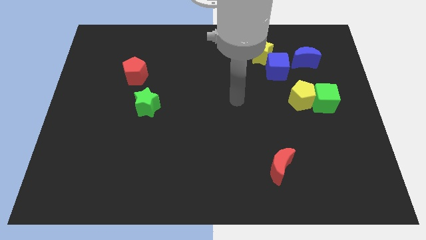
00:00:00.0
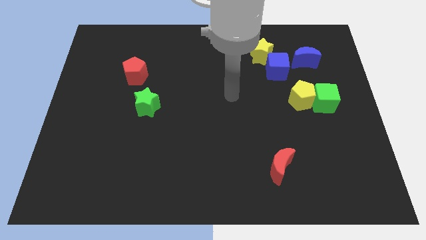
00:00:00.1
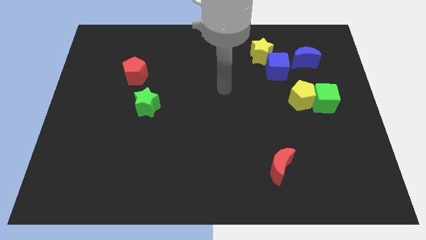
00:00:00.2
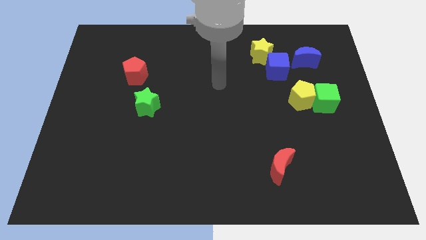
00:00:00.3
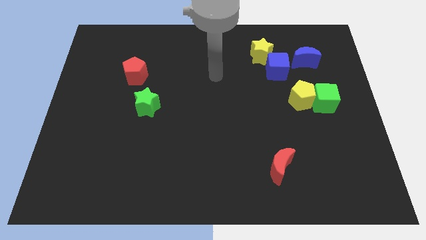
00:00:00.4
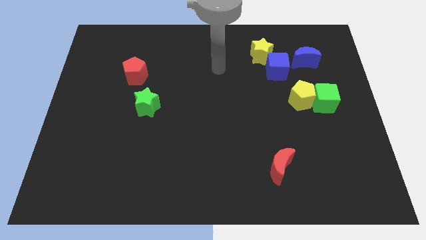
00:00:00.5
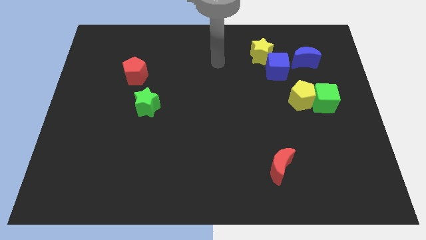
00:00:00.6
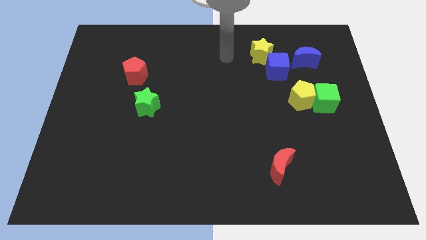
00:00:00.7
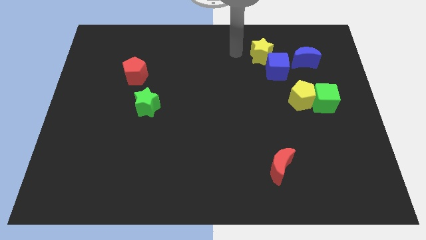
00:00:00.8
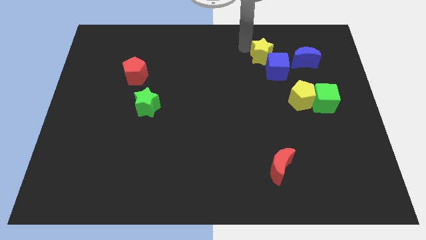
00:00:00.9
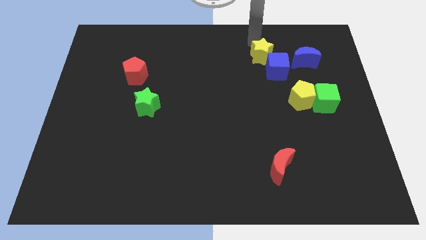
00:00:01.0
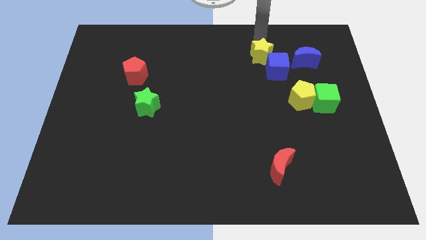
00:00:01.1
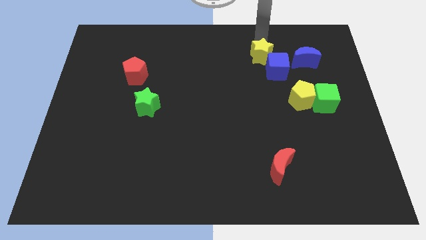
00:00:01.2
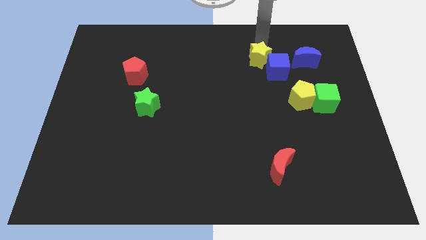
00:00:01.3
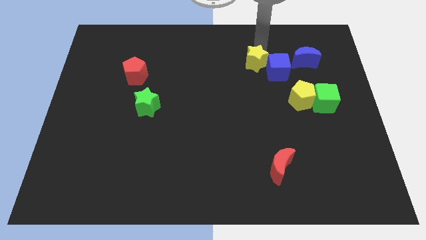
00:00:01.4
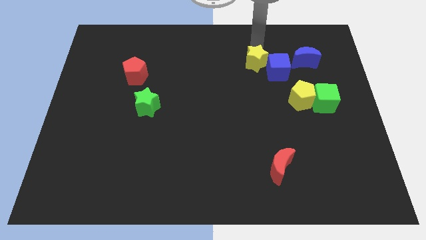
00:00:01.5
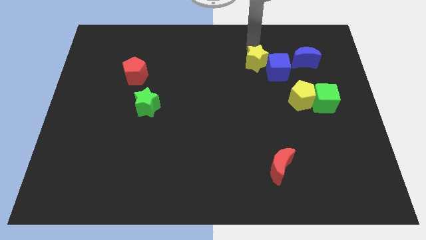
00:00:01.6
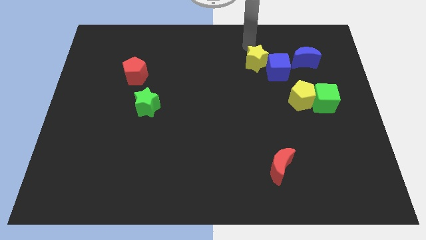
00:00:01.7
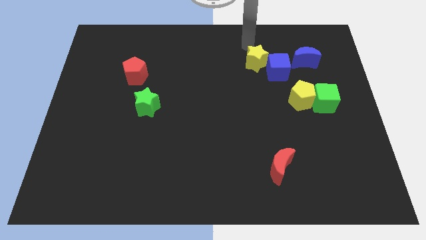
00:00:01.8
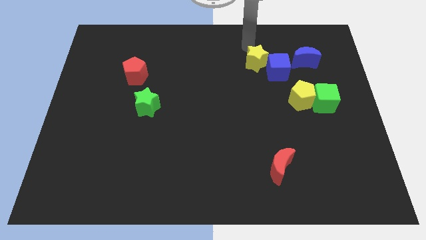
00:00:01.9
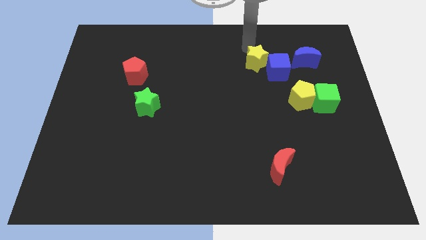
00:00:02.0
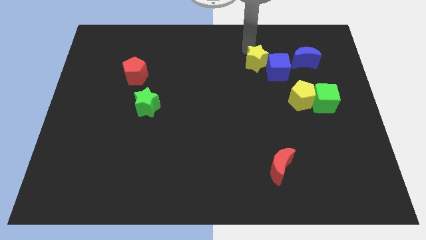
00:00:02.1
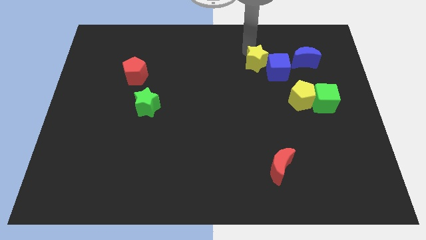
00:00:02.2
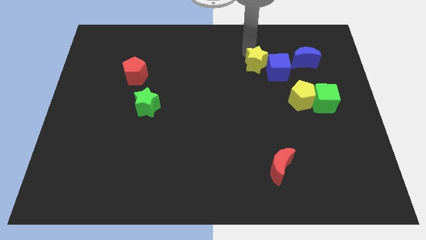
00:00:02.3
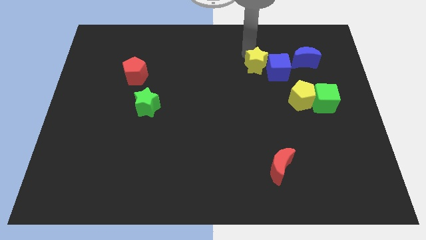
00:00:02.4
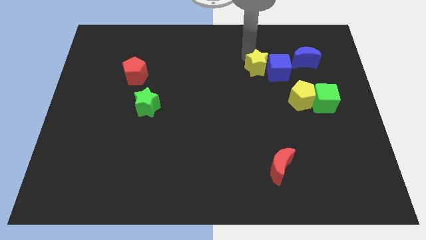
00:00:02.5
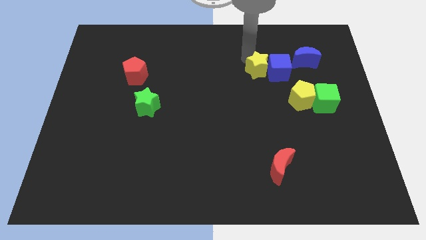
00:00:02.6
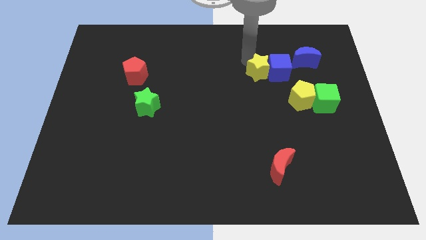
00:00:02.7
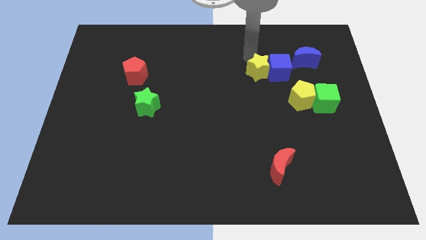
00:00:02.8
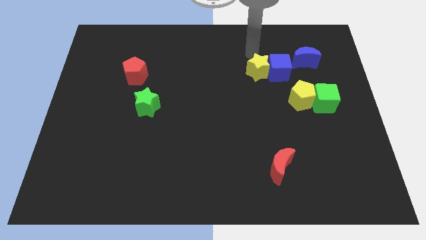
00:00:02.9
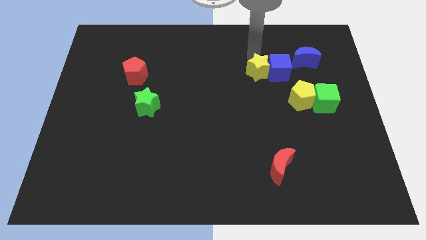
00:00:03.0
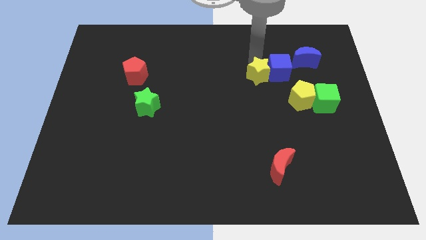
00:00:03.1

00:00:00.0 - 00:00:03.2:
move the yellow star somewhat down

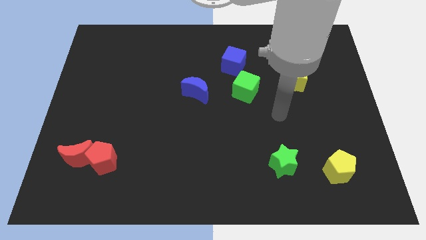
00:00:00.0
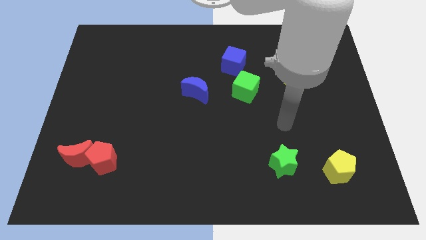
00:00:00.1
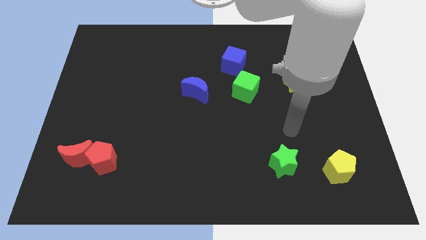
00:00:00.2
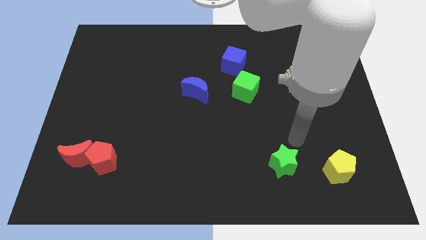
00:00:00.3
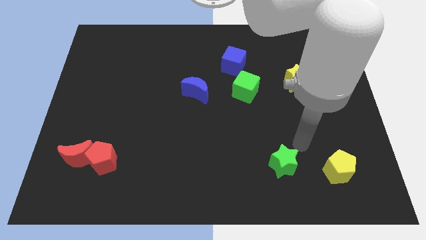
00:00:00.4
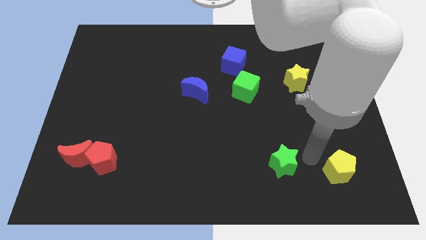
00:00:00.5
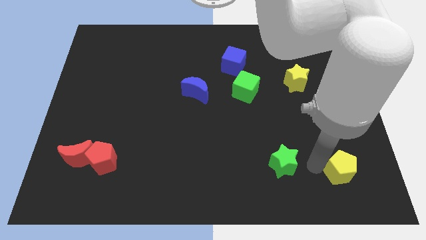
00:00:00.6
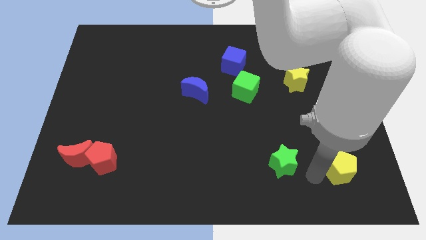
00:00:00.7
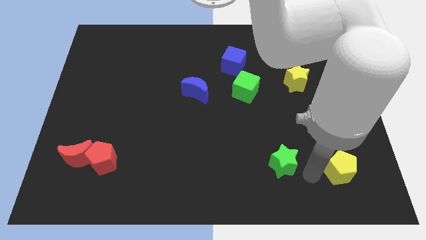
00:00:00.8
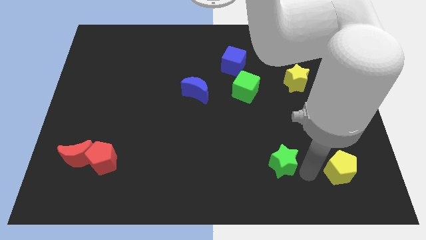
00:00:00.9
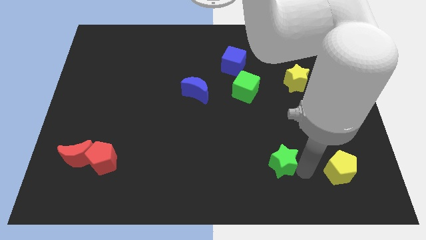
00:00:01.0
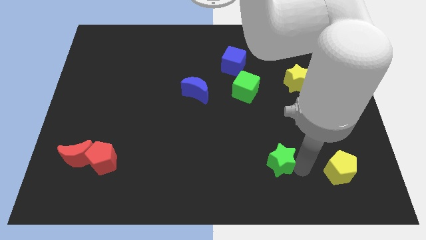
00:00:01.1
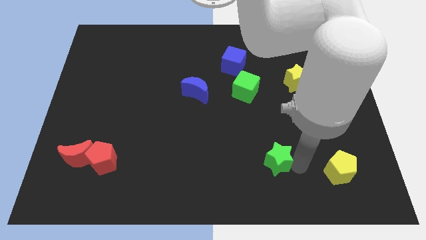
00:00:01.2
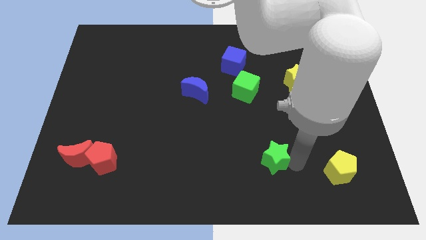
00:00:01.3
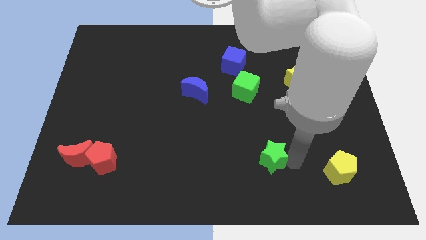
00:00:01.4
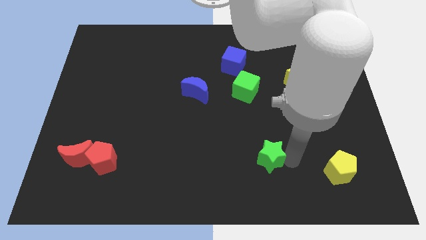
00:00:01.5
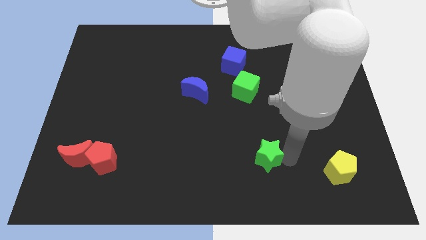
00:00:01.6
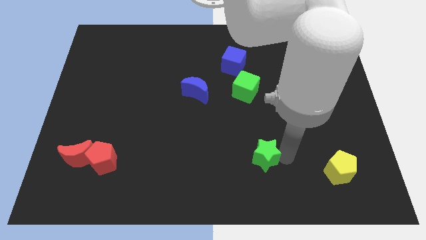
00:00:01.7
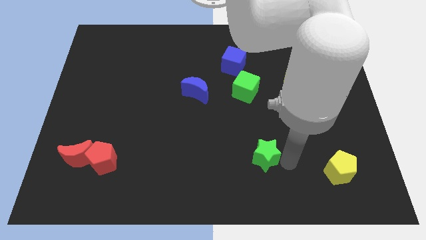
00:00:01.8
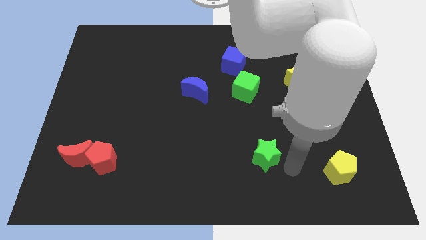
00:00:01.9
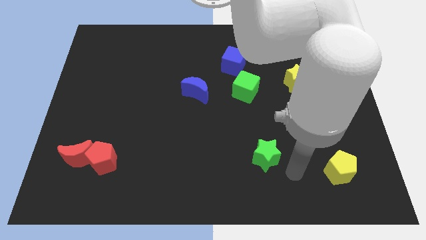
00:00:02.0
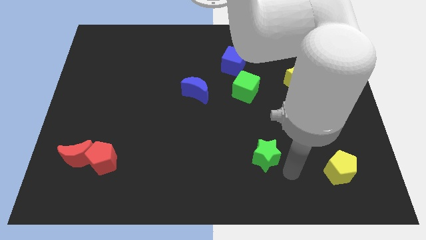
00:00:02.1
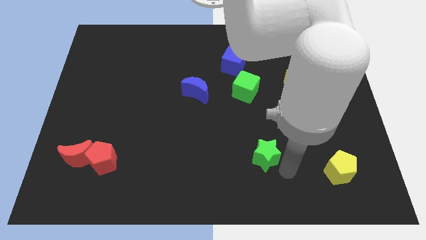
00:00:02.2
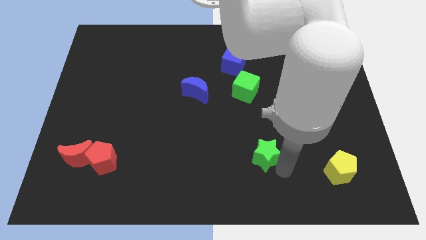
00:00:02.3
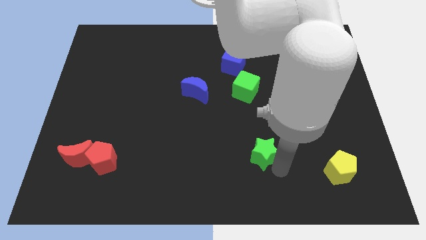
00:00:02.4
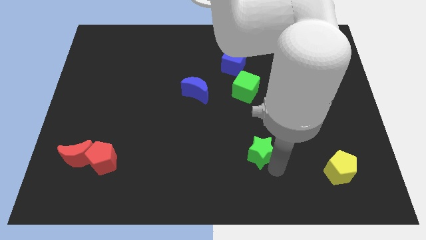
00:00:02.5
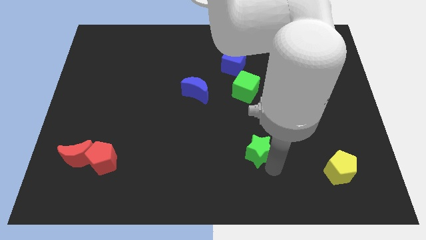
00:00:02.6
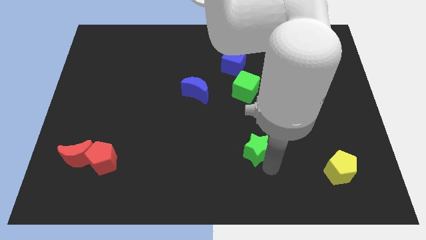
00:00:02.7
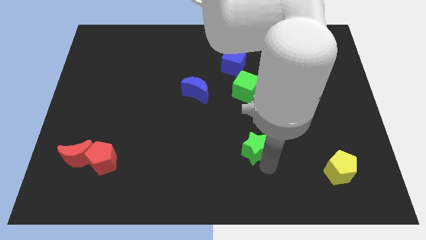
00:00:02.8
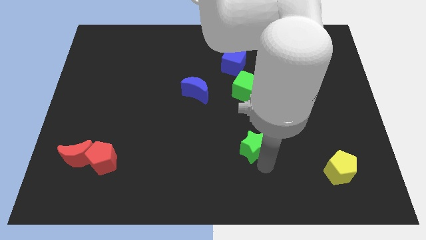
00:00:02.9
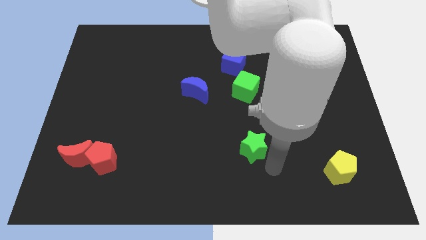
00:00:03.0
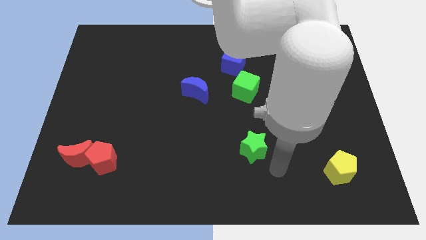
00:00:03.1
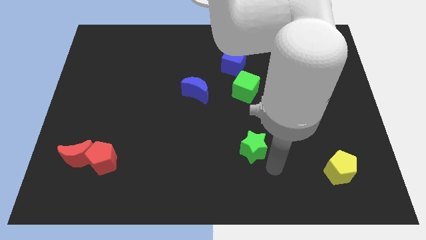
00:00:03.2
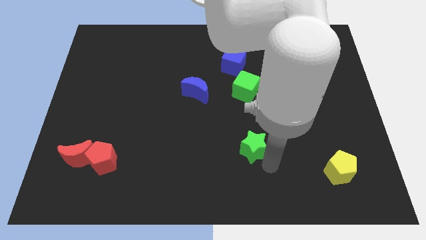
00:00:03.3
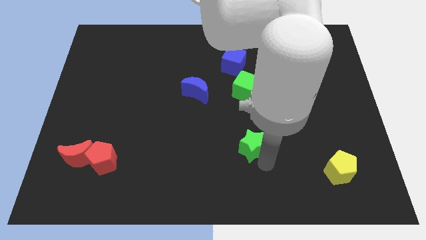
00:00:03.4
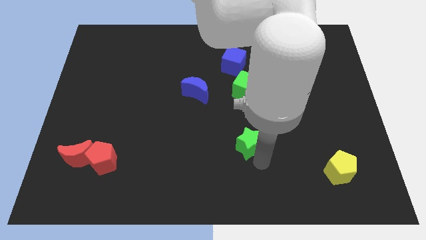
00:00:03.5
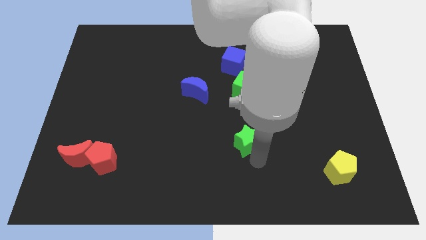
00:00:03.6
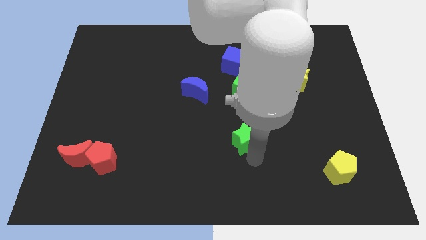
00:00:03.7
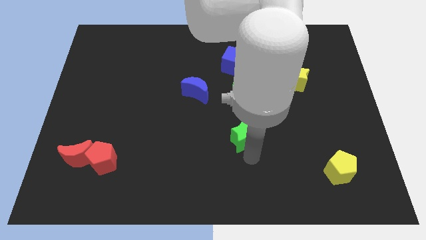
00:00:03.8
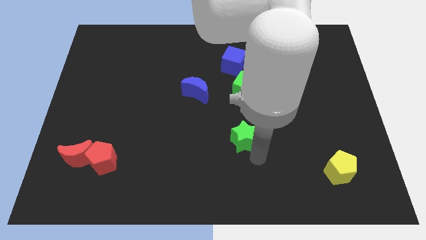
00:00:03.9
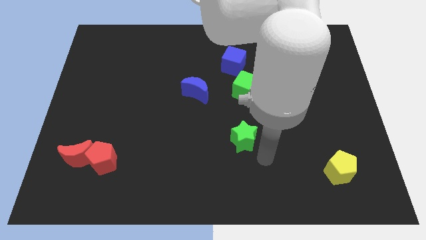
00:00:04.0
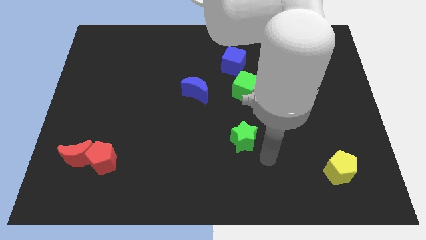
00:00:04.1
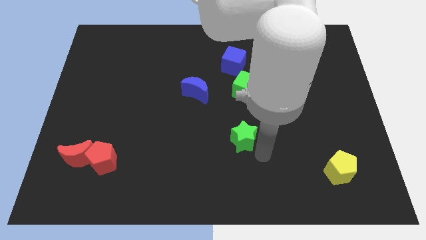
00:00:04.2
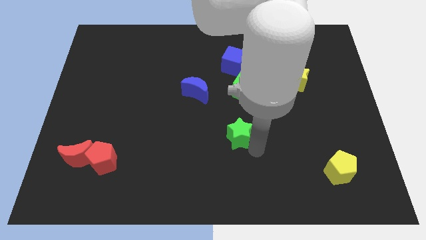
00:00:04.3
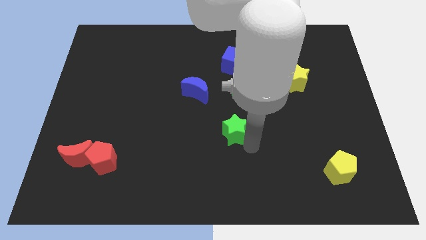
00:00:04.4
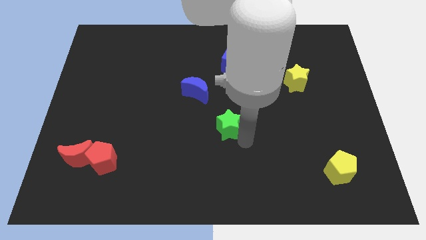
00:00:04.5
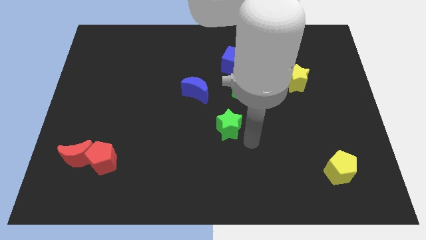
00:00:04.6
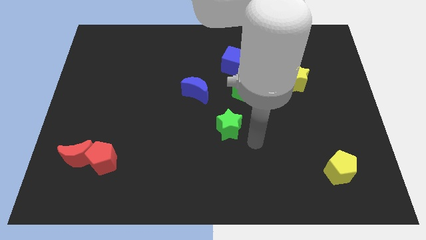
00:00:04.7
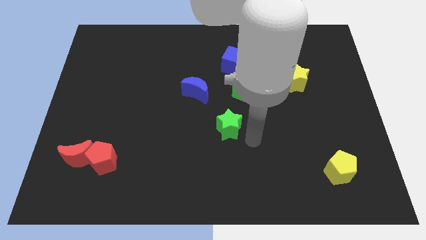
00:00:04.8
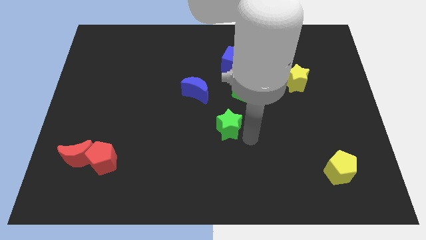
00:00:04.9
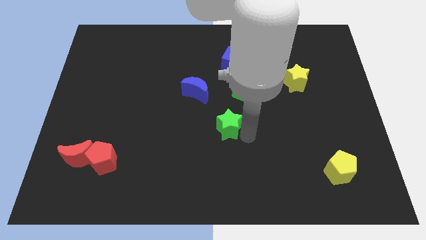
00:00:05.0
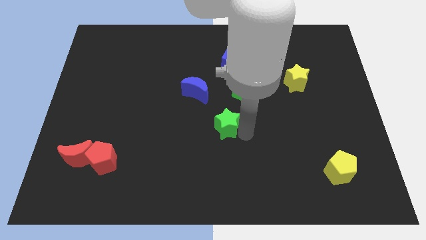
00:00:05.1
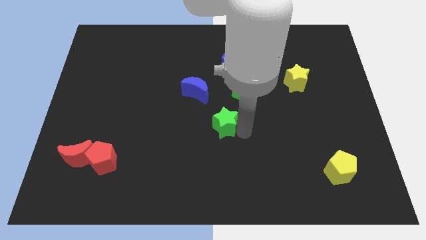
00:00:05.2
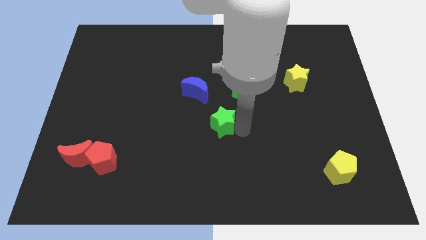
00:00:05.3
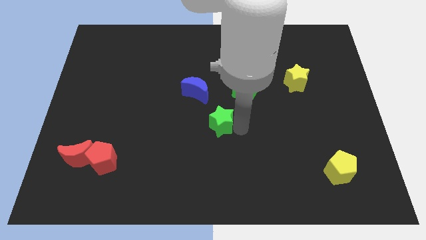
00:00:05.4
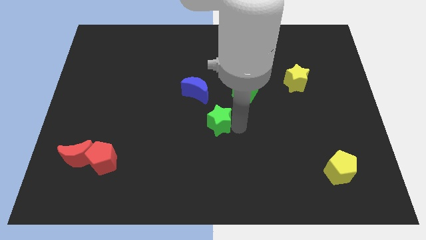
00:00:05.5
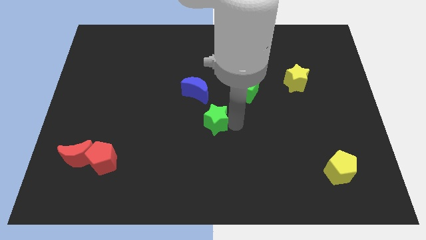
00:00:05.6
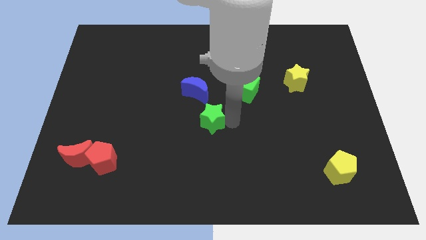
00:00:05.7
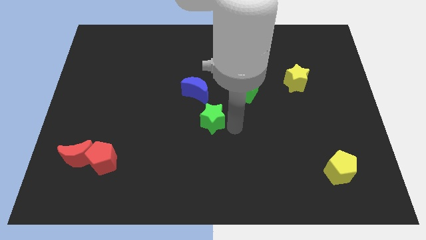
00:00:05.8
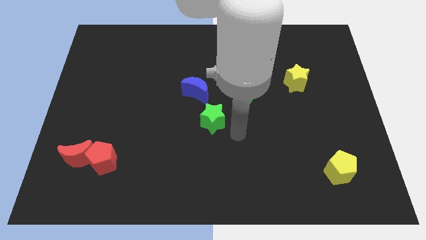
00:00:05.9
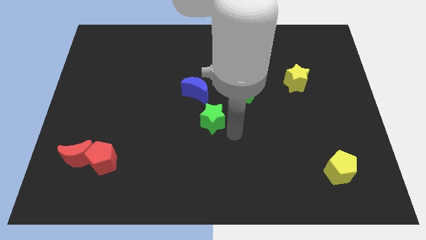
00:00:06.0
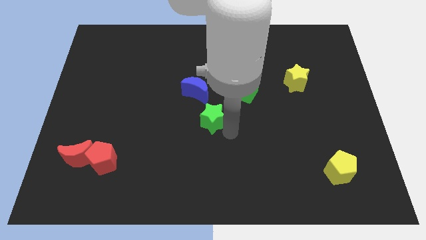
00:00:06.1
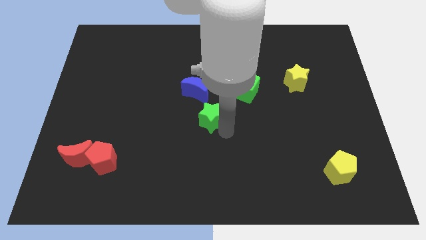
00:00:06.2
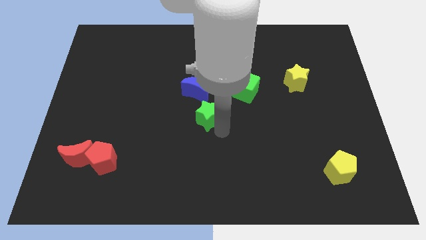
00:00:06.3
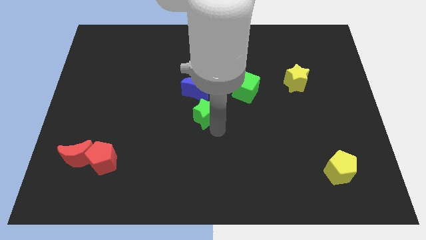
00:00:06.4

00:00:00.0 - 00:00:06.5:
slide the green star up and then left
